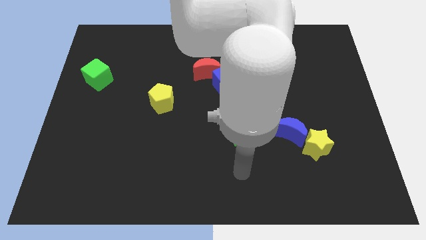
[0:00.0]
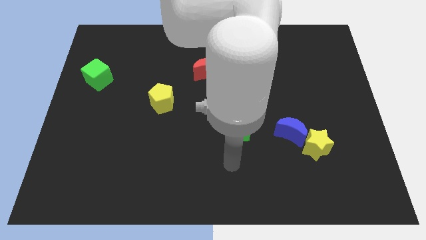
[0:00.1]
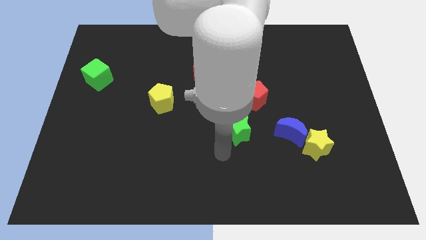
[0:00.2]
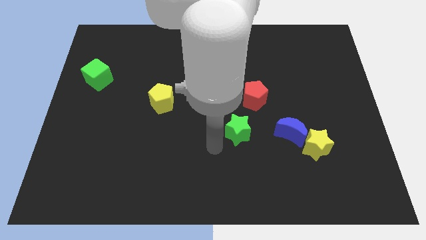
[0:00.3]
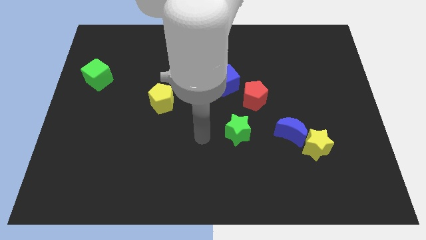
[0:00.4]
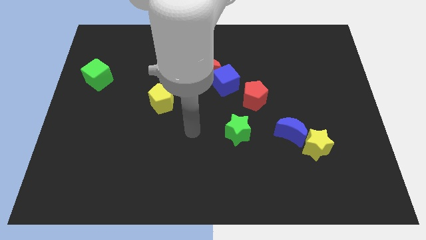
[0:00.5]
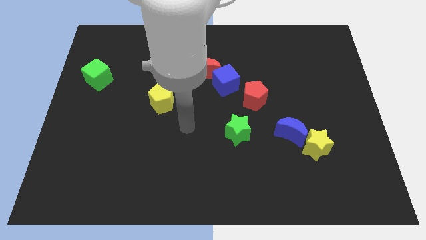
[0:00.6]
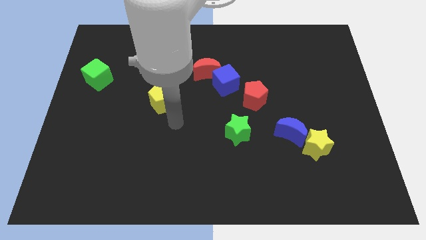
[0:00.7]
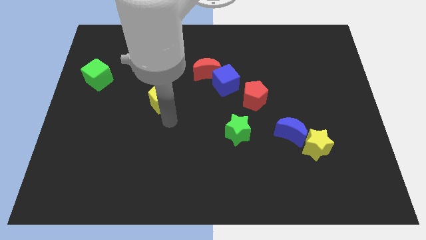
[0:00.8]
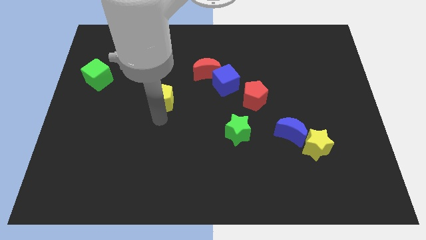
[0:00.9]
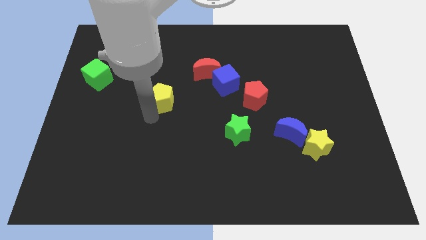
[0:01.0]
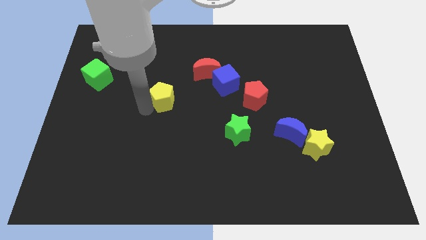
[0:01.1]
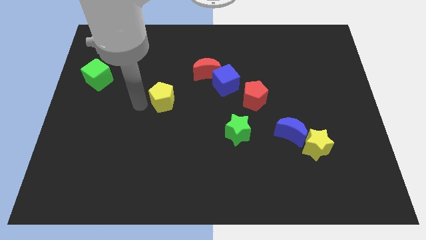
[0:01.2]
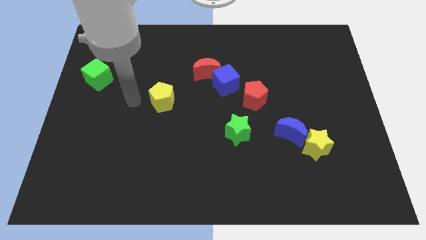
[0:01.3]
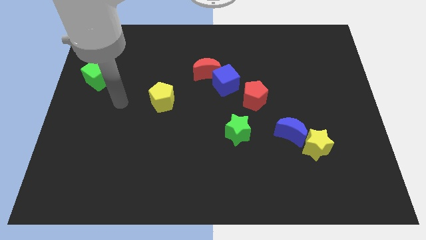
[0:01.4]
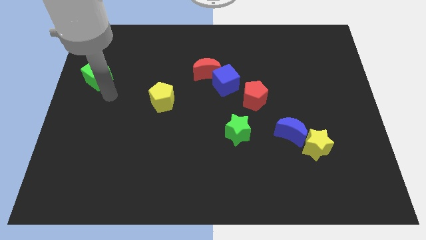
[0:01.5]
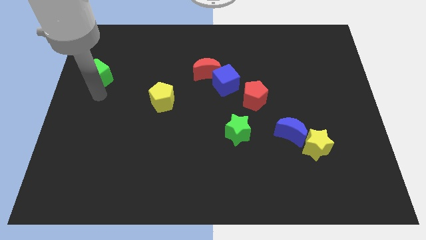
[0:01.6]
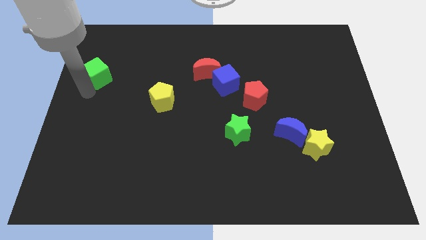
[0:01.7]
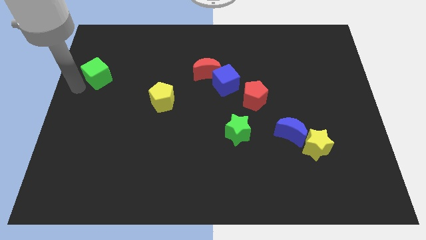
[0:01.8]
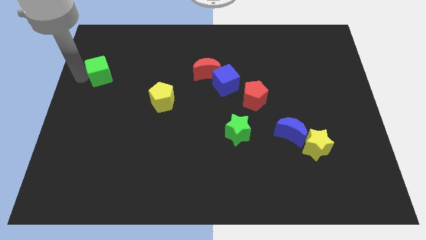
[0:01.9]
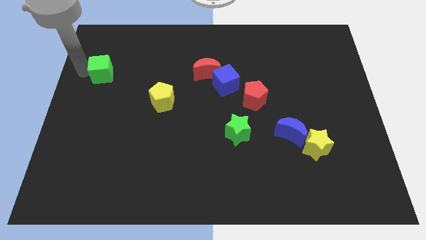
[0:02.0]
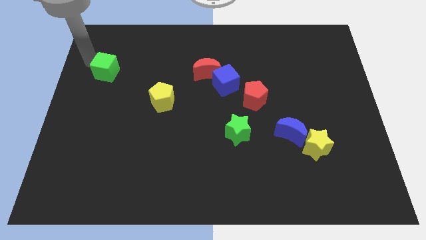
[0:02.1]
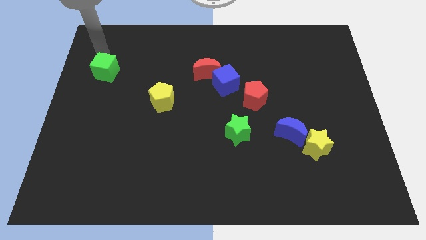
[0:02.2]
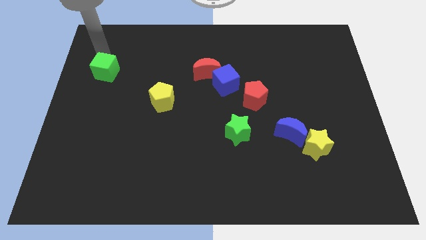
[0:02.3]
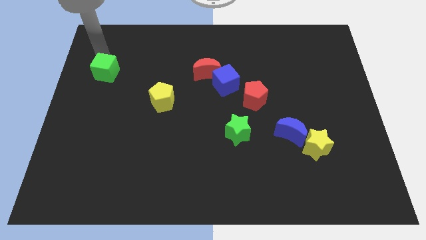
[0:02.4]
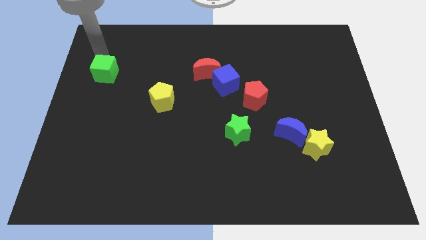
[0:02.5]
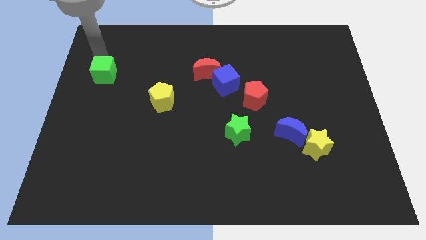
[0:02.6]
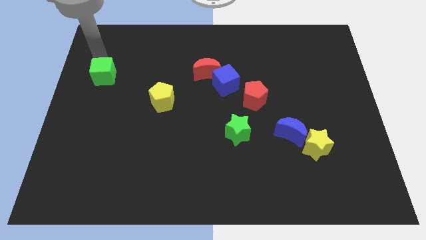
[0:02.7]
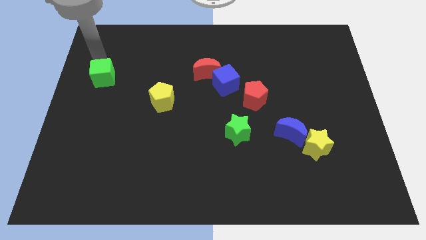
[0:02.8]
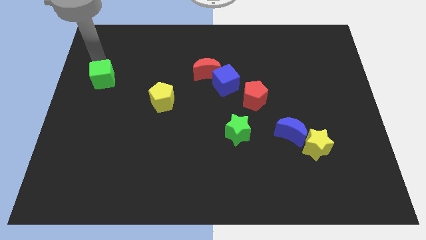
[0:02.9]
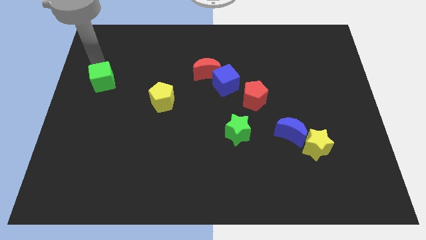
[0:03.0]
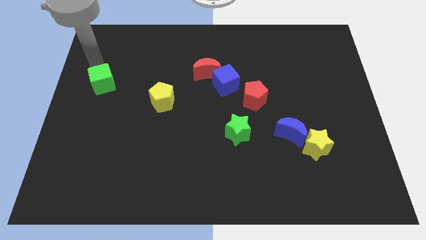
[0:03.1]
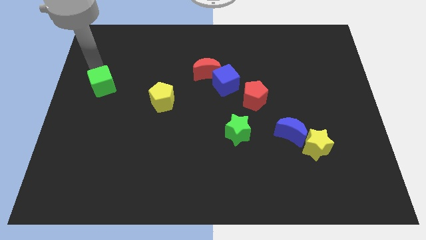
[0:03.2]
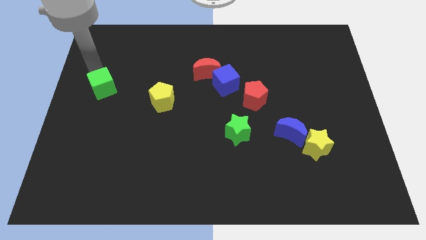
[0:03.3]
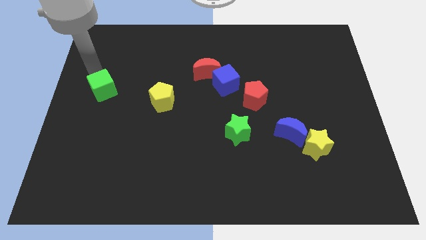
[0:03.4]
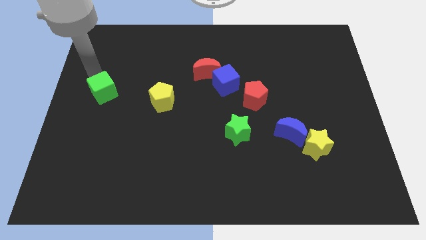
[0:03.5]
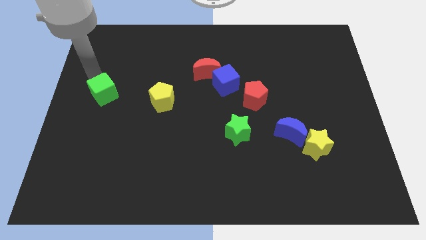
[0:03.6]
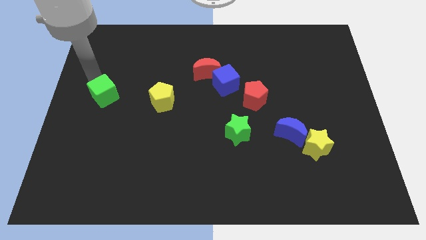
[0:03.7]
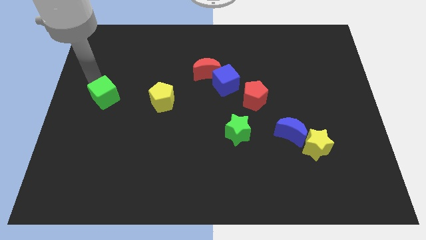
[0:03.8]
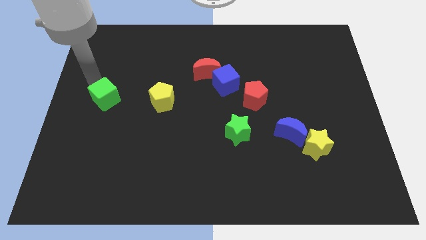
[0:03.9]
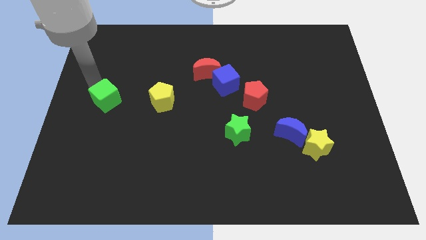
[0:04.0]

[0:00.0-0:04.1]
move the green cube slightly downwards and then to the right

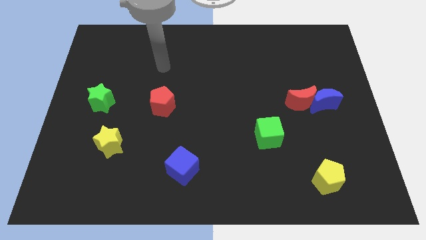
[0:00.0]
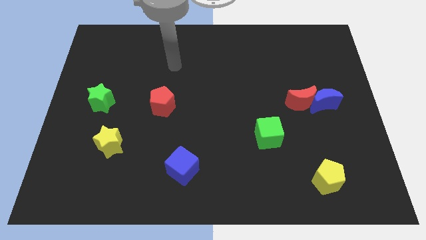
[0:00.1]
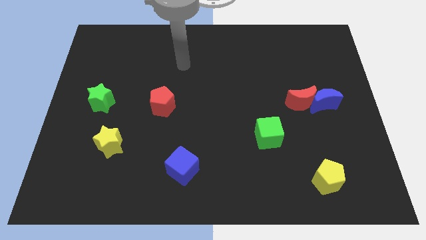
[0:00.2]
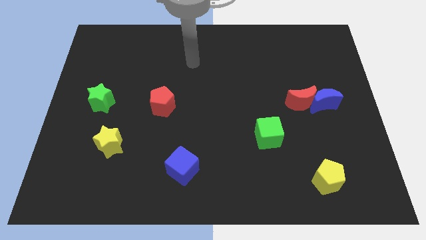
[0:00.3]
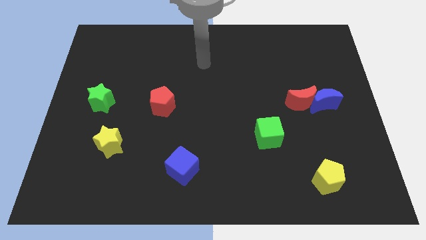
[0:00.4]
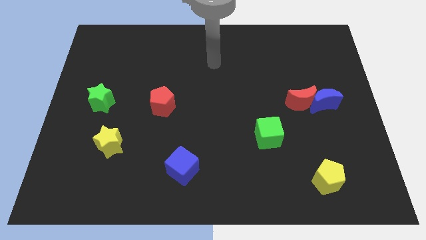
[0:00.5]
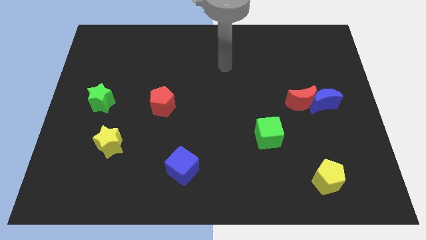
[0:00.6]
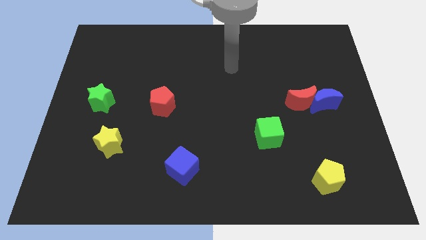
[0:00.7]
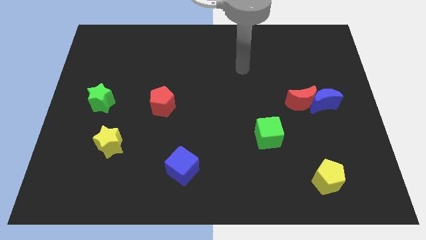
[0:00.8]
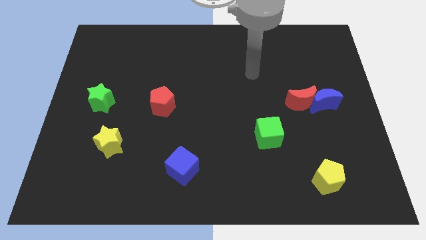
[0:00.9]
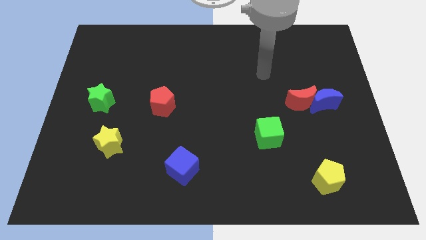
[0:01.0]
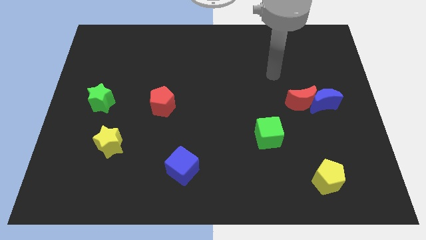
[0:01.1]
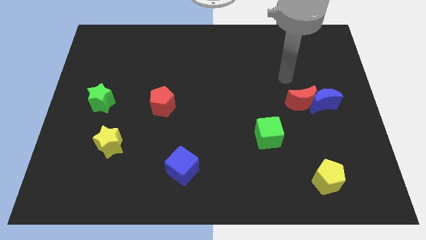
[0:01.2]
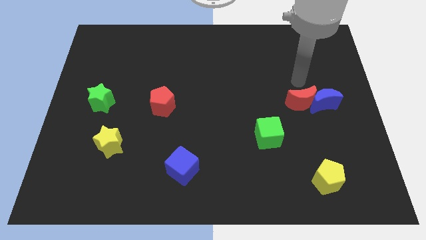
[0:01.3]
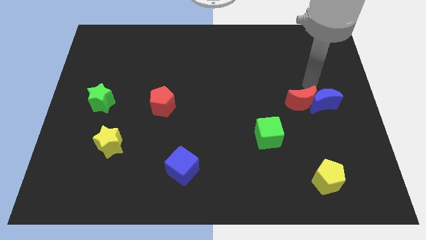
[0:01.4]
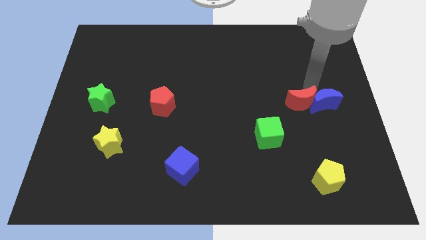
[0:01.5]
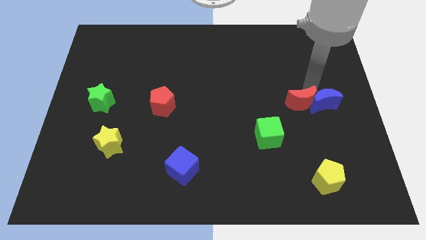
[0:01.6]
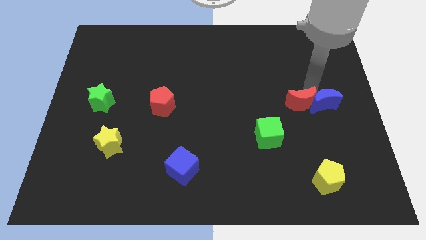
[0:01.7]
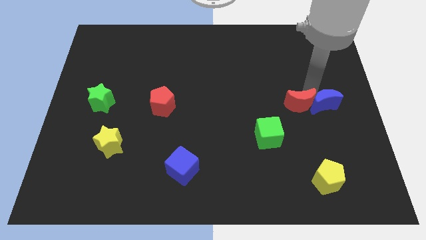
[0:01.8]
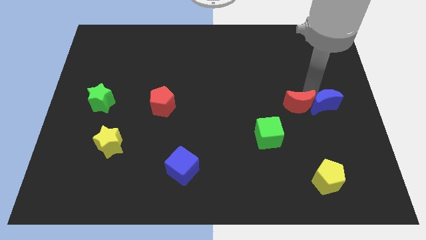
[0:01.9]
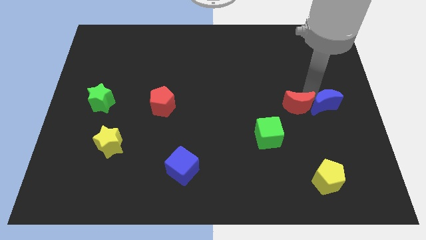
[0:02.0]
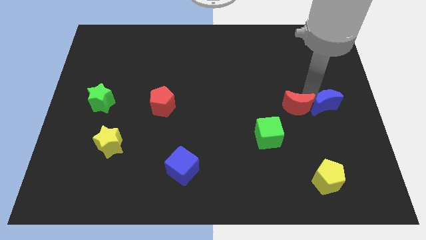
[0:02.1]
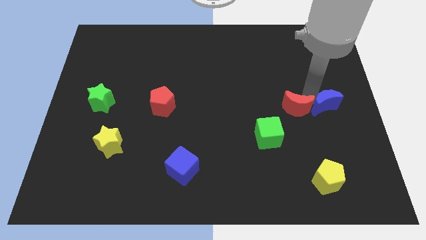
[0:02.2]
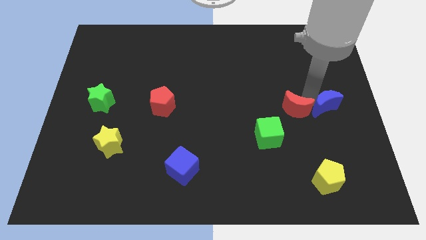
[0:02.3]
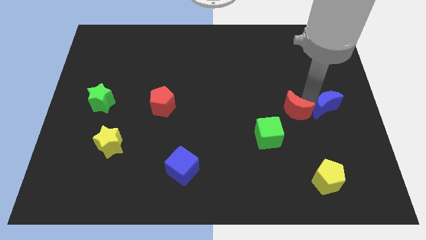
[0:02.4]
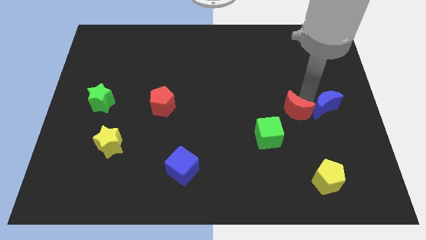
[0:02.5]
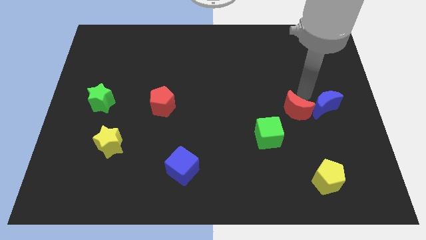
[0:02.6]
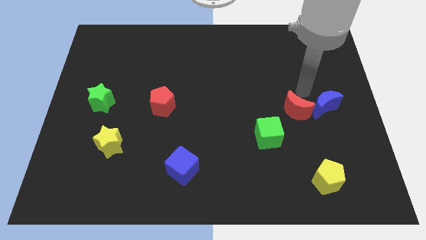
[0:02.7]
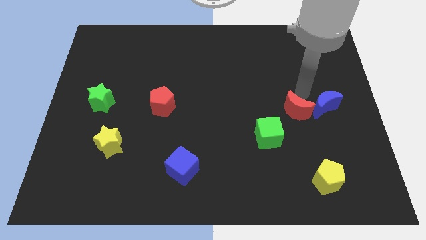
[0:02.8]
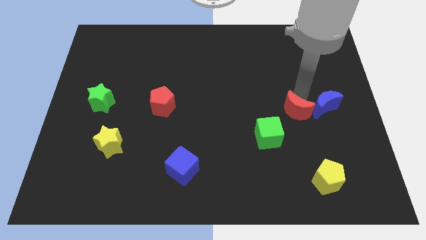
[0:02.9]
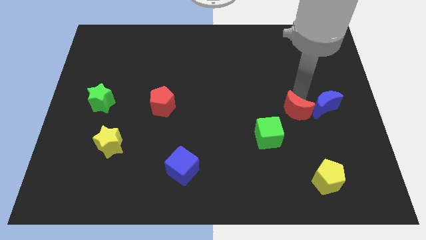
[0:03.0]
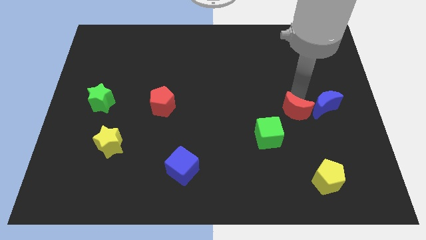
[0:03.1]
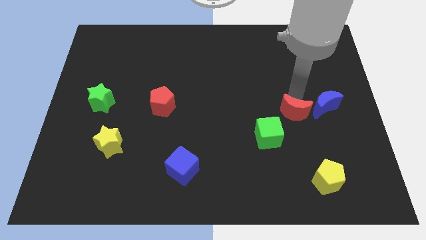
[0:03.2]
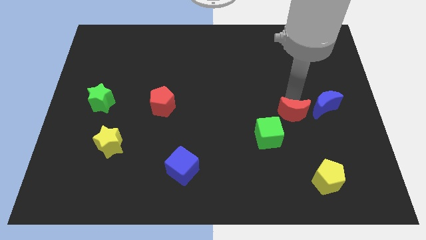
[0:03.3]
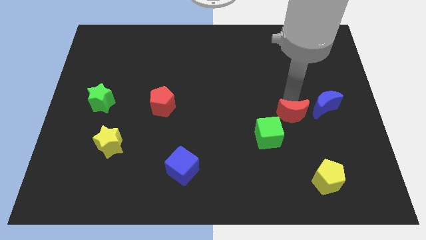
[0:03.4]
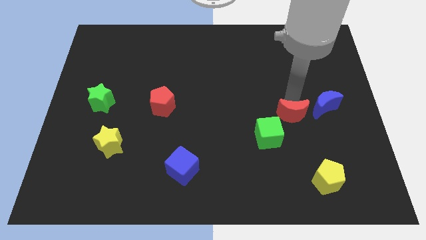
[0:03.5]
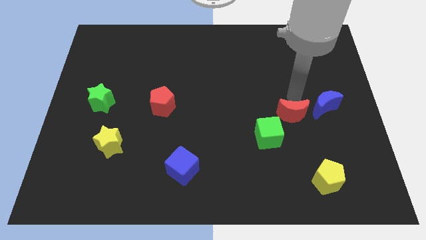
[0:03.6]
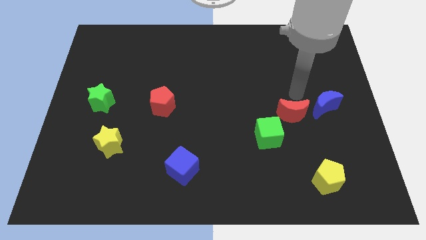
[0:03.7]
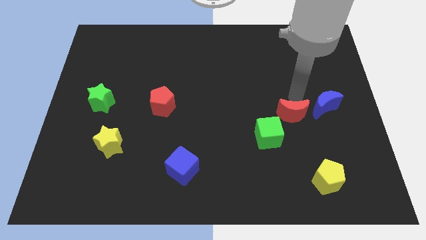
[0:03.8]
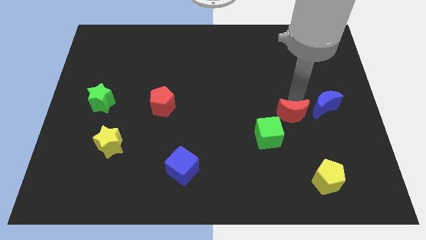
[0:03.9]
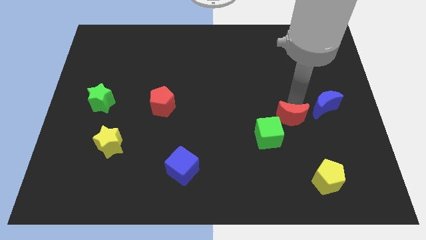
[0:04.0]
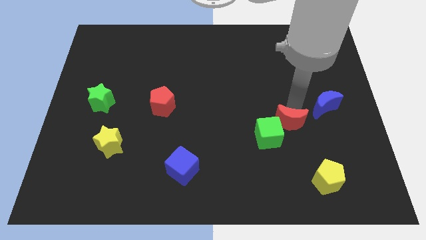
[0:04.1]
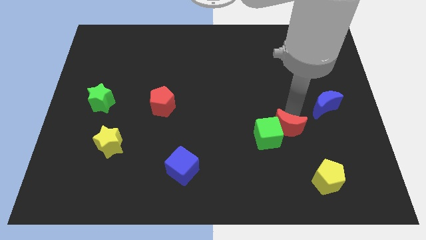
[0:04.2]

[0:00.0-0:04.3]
move the red moon diagonally down and left somewhat
